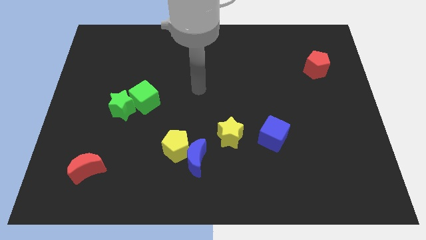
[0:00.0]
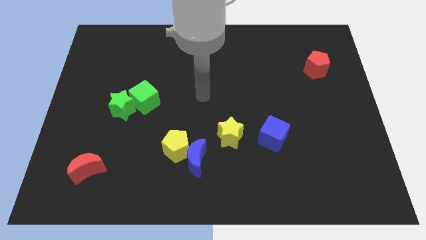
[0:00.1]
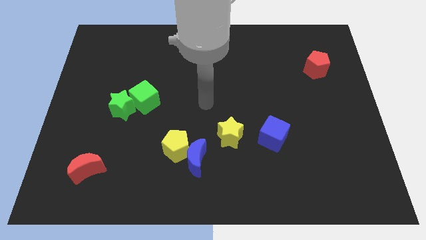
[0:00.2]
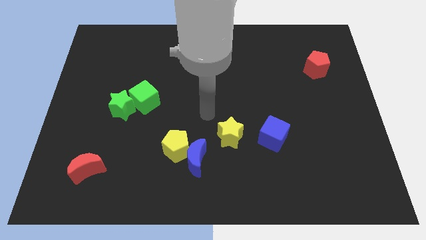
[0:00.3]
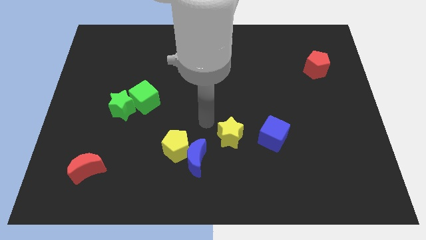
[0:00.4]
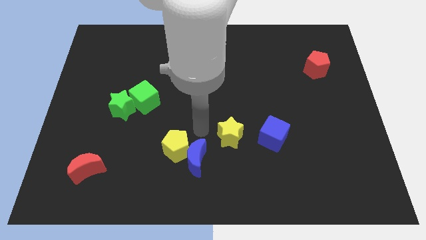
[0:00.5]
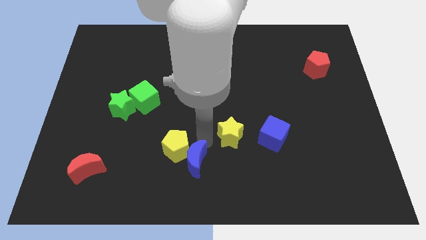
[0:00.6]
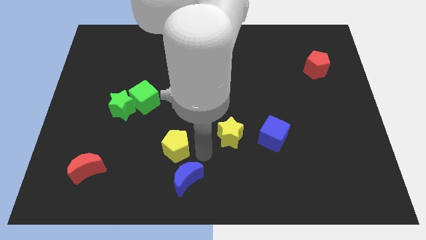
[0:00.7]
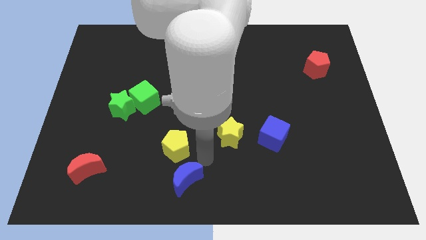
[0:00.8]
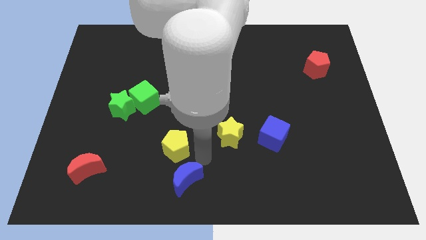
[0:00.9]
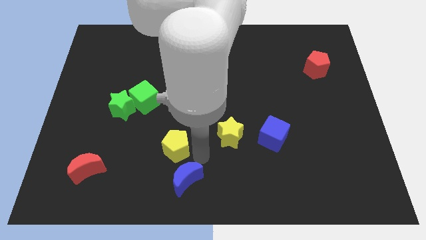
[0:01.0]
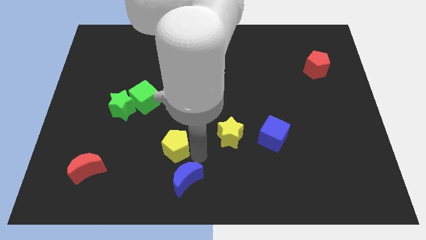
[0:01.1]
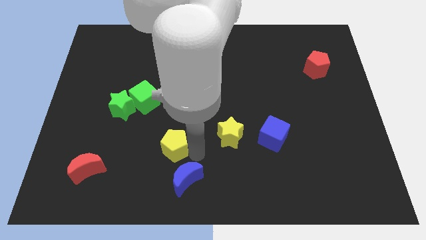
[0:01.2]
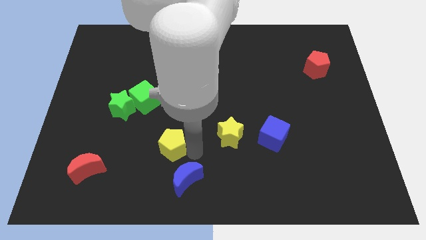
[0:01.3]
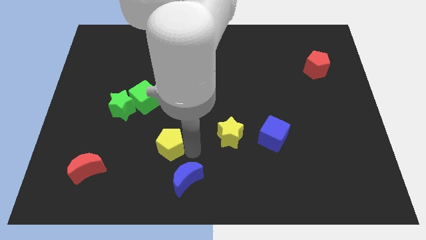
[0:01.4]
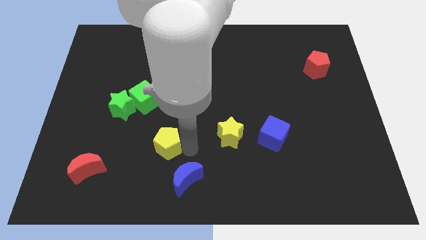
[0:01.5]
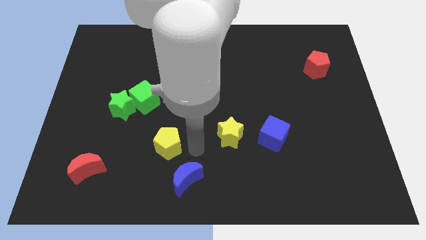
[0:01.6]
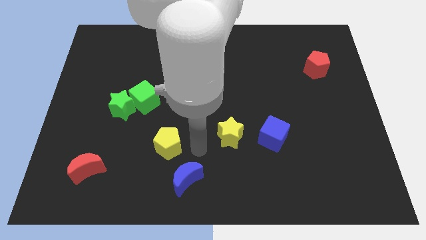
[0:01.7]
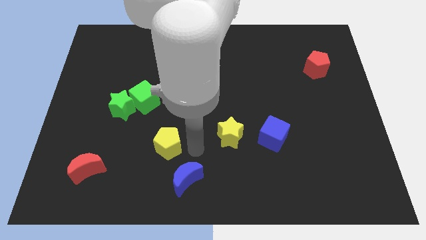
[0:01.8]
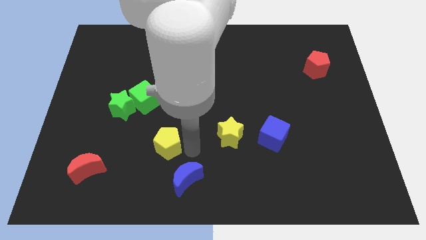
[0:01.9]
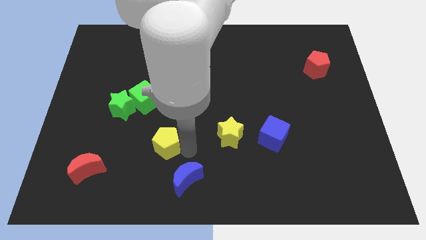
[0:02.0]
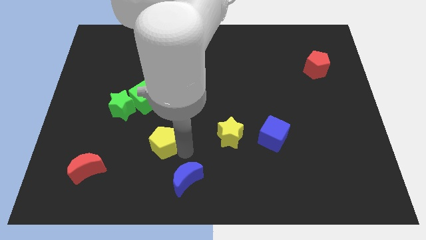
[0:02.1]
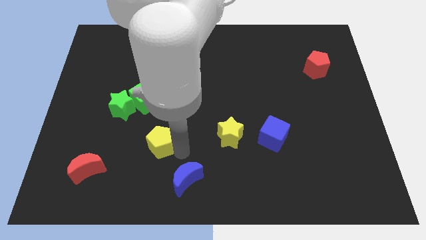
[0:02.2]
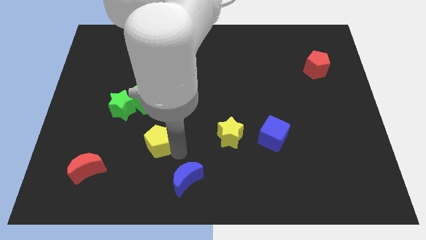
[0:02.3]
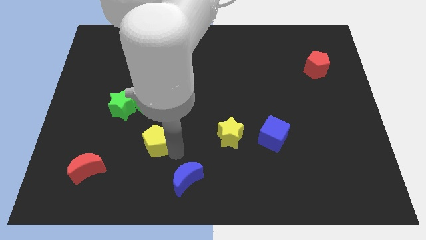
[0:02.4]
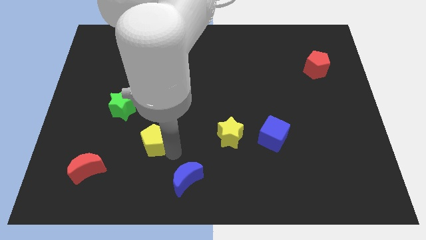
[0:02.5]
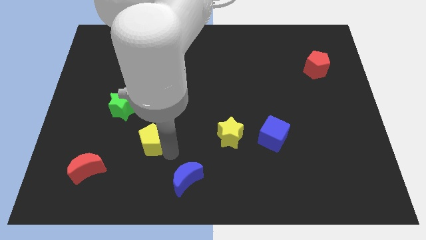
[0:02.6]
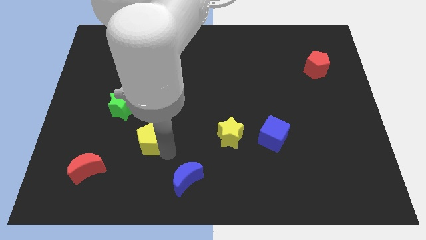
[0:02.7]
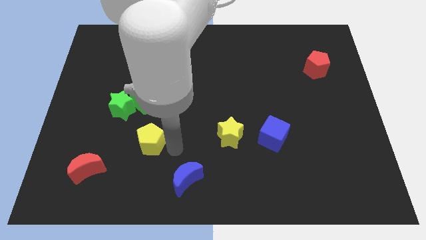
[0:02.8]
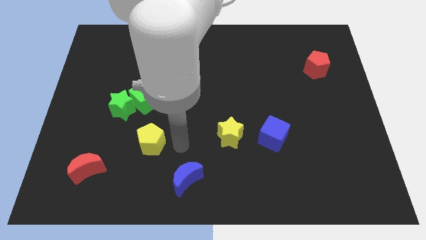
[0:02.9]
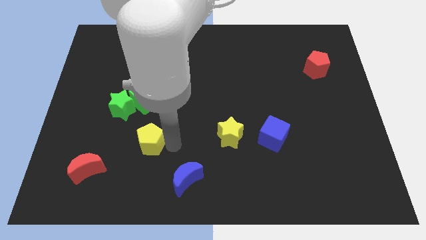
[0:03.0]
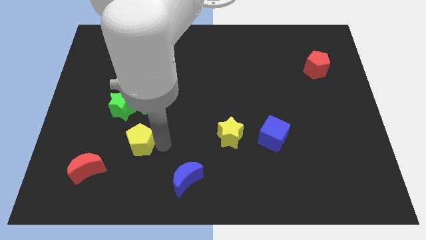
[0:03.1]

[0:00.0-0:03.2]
slightly slide the yellow pentagon to the left

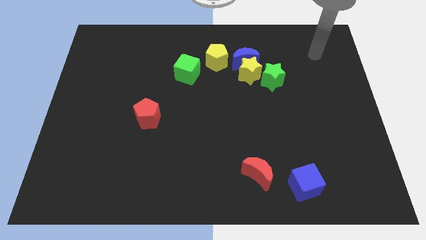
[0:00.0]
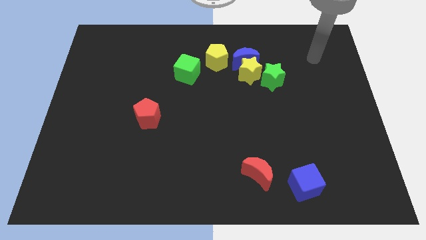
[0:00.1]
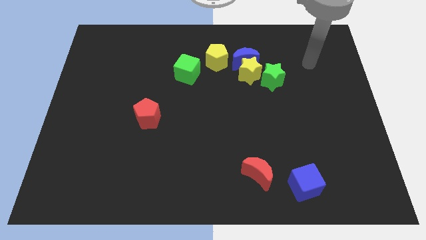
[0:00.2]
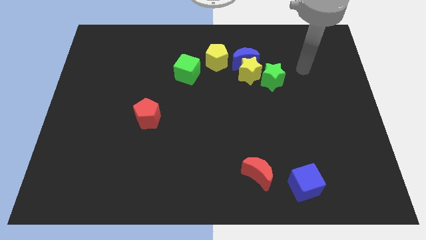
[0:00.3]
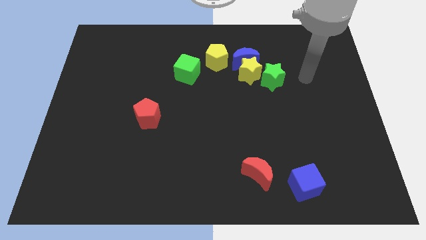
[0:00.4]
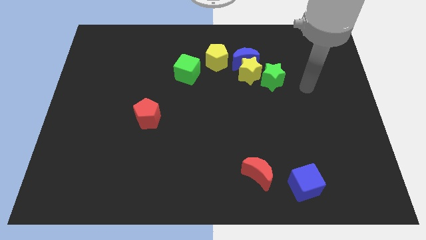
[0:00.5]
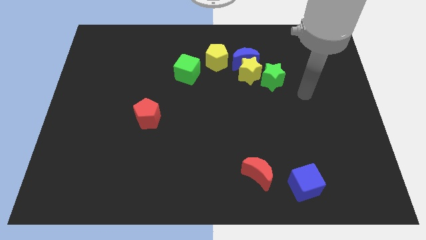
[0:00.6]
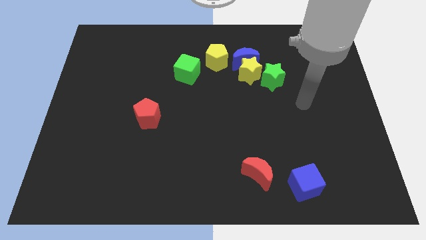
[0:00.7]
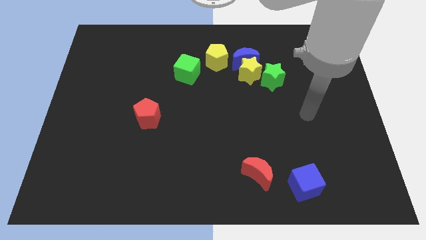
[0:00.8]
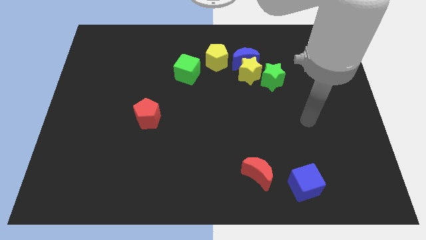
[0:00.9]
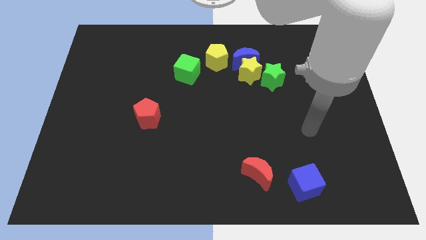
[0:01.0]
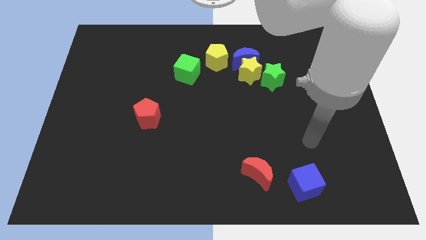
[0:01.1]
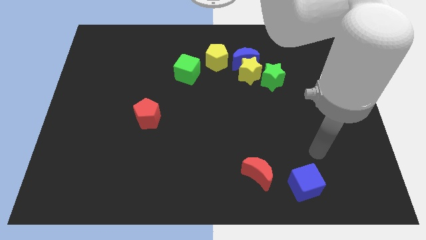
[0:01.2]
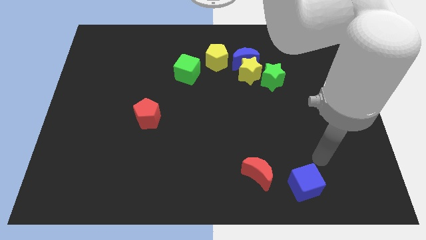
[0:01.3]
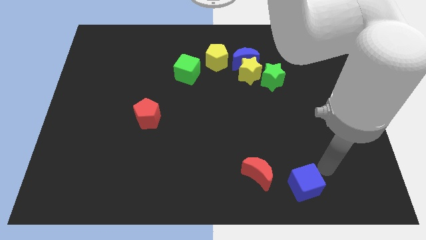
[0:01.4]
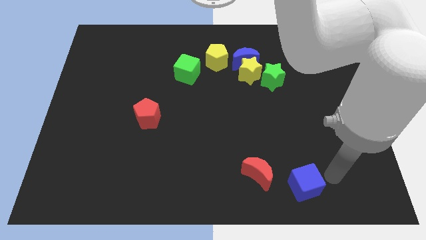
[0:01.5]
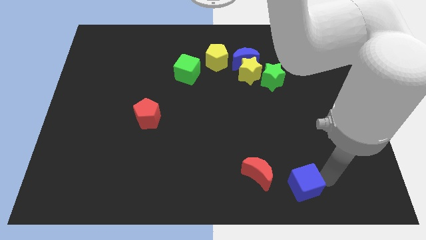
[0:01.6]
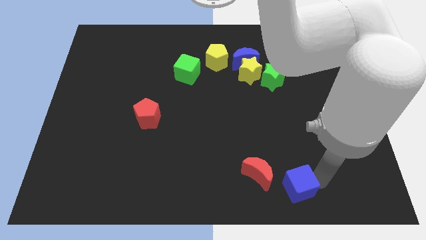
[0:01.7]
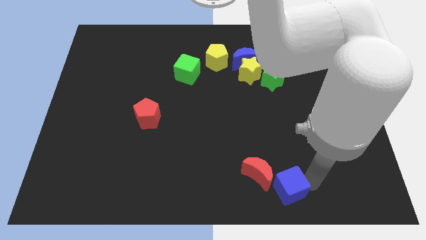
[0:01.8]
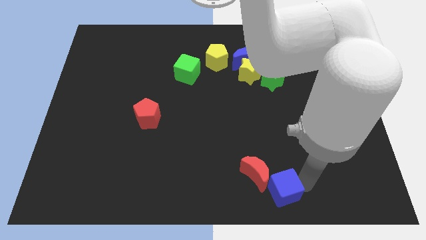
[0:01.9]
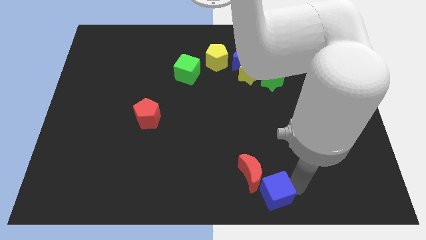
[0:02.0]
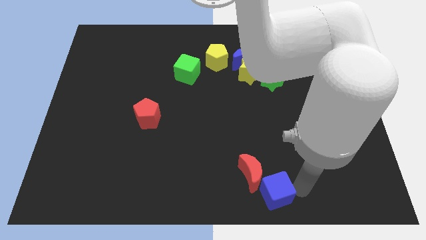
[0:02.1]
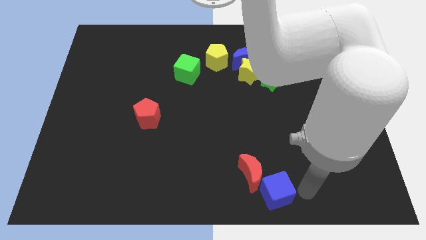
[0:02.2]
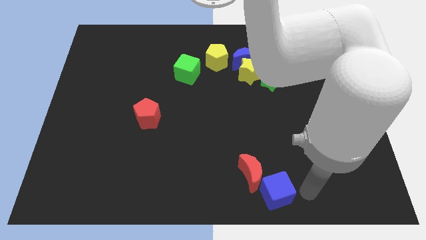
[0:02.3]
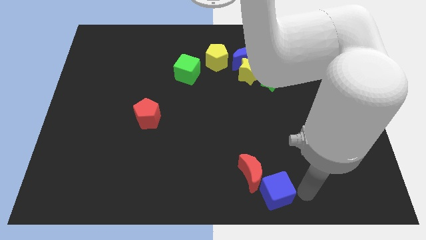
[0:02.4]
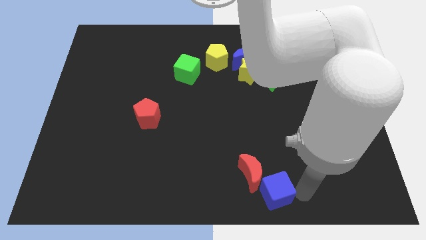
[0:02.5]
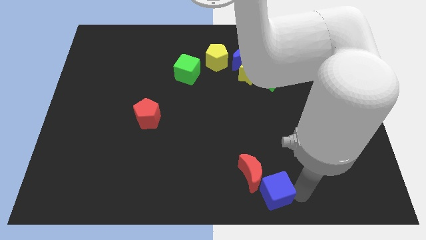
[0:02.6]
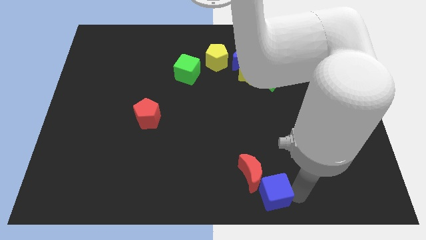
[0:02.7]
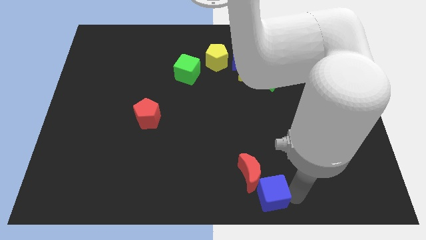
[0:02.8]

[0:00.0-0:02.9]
slide the blue cube slightly left

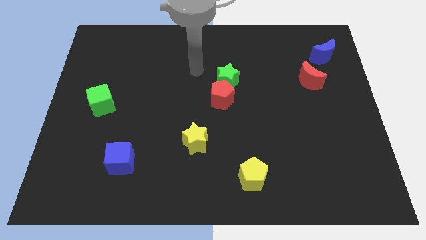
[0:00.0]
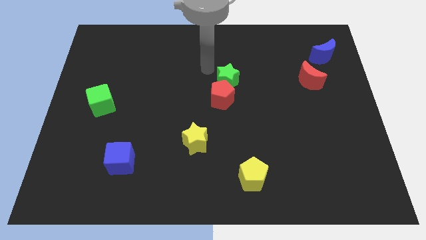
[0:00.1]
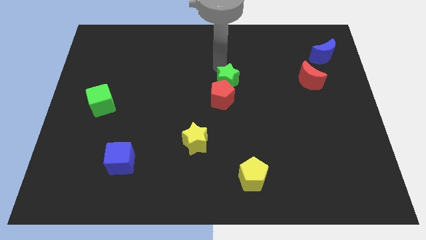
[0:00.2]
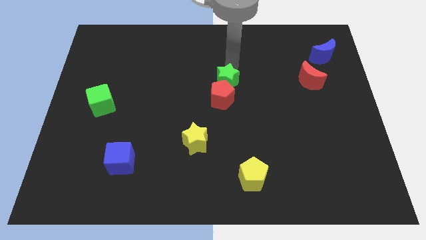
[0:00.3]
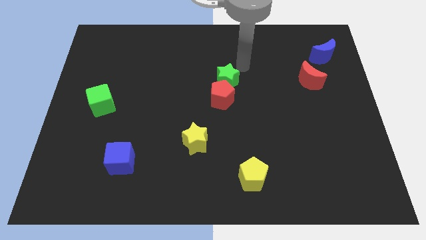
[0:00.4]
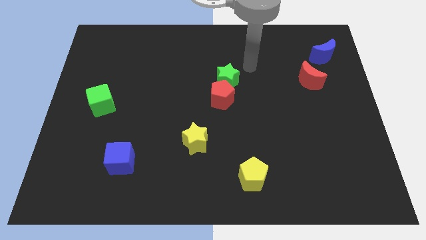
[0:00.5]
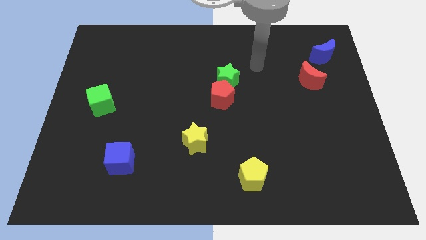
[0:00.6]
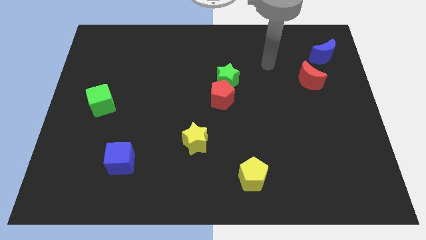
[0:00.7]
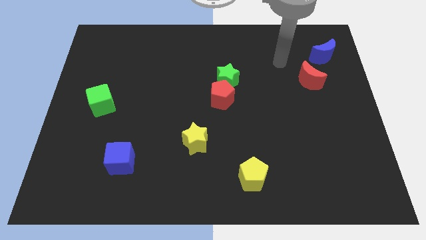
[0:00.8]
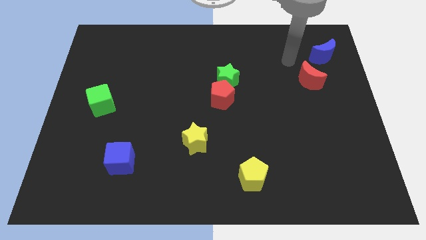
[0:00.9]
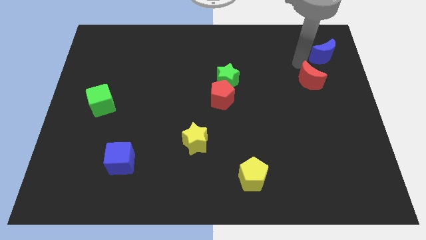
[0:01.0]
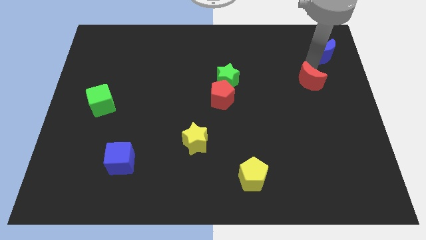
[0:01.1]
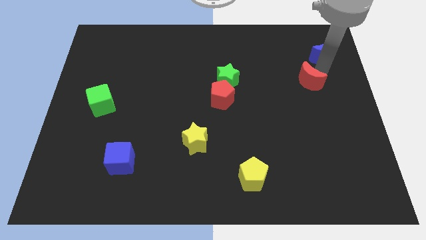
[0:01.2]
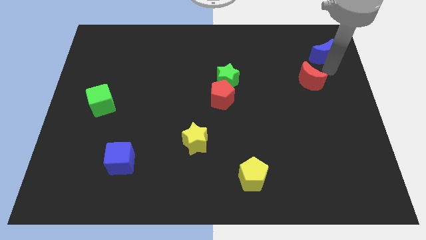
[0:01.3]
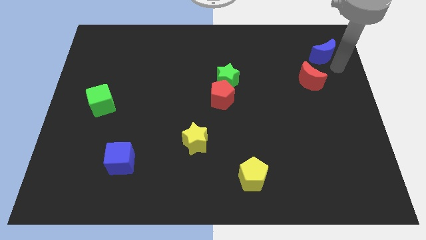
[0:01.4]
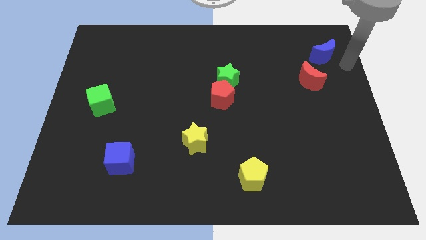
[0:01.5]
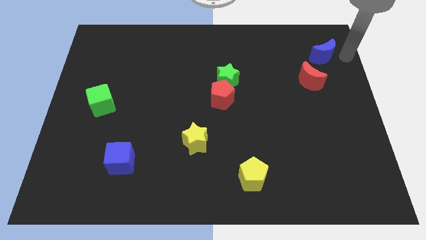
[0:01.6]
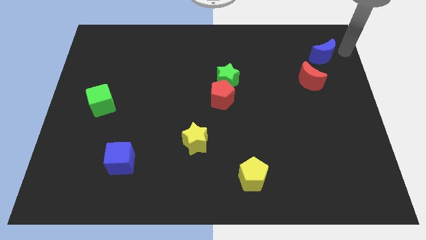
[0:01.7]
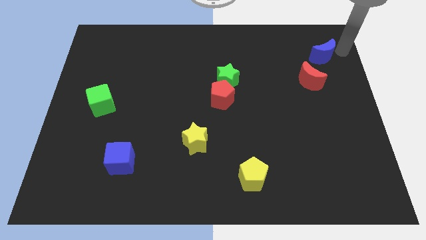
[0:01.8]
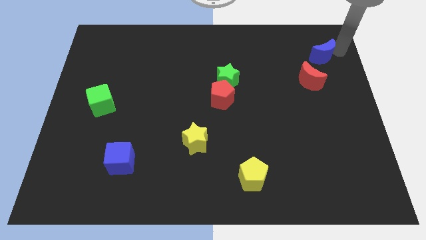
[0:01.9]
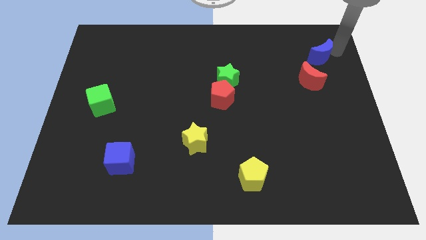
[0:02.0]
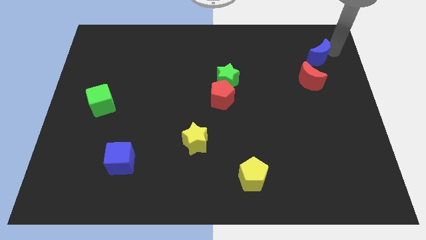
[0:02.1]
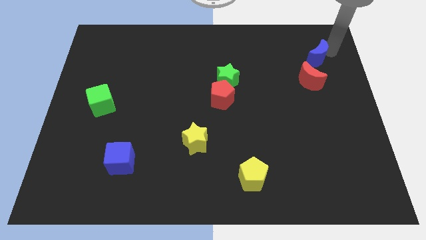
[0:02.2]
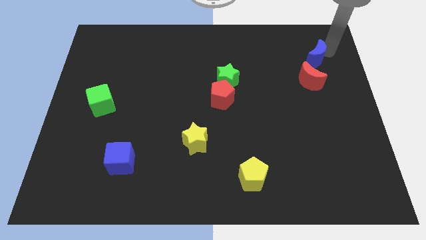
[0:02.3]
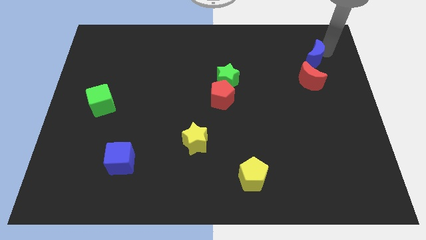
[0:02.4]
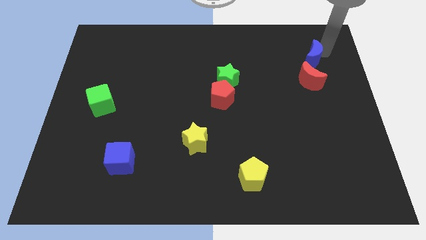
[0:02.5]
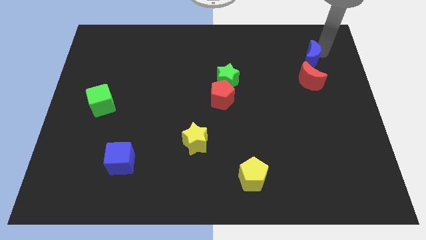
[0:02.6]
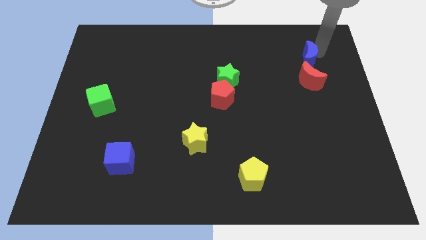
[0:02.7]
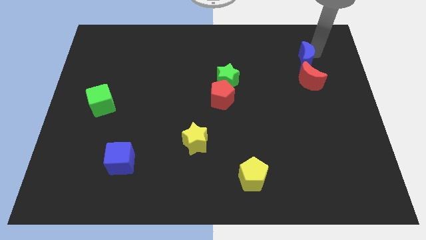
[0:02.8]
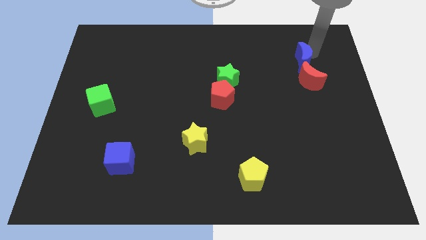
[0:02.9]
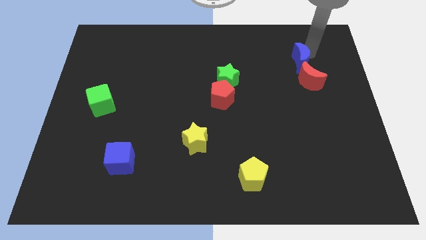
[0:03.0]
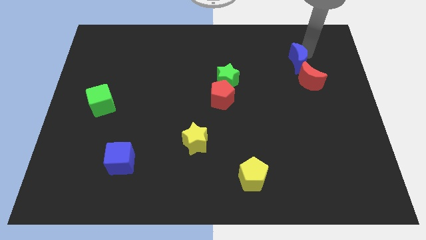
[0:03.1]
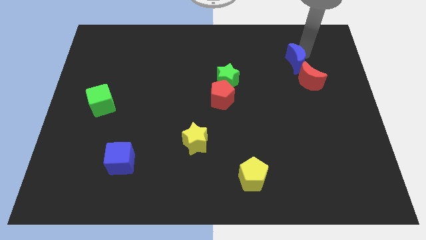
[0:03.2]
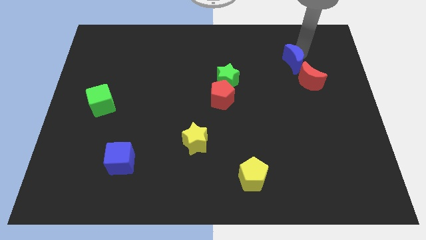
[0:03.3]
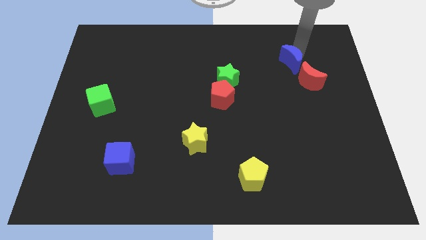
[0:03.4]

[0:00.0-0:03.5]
move the blue moon slightly down and to the left
